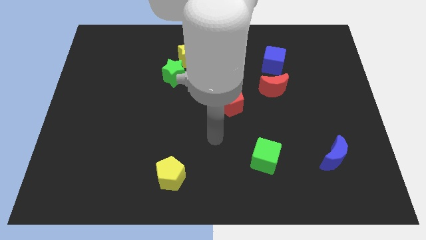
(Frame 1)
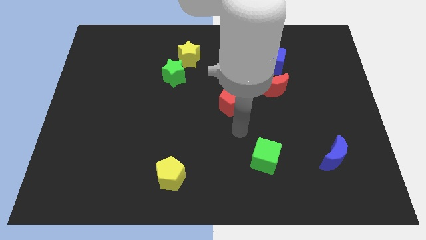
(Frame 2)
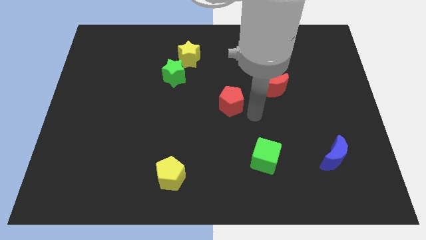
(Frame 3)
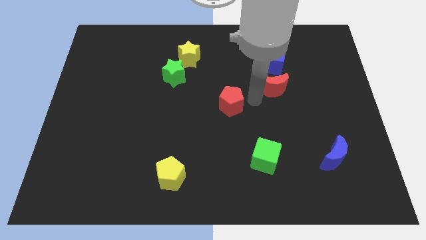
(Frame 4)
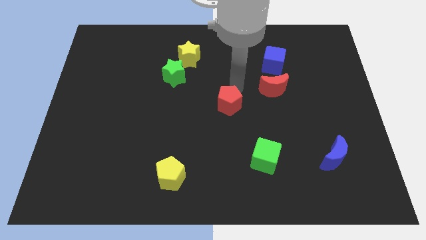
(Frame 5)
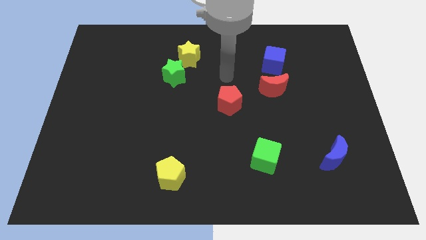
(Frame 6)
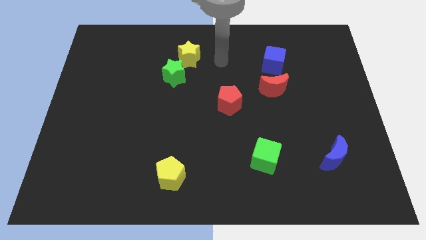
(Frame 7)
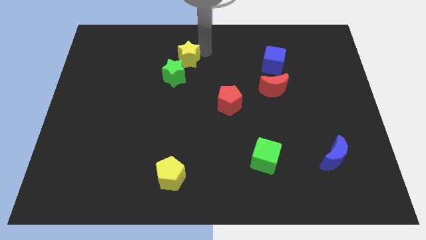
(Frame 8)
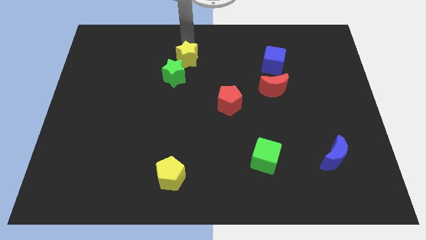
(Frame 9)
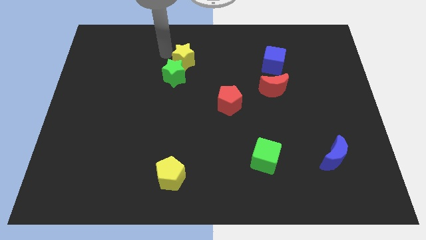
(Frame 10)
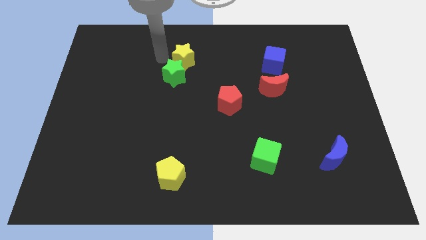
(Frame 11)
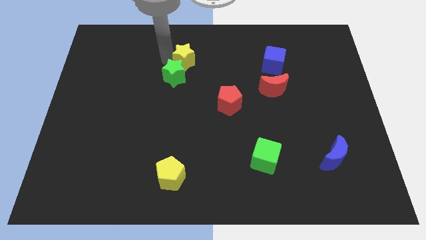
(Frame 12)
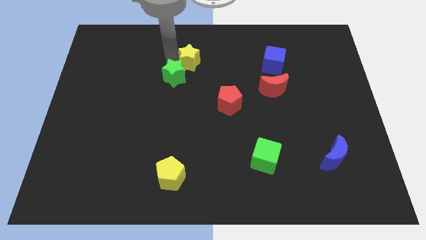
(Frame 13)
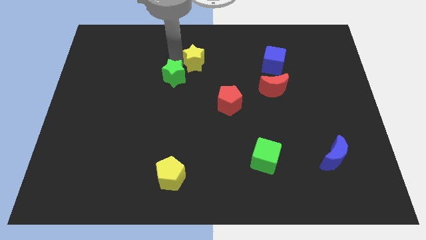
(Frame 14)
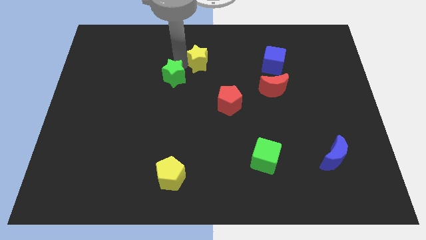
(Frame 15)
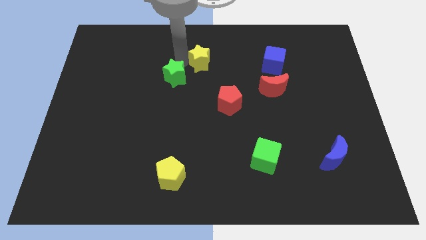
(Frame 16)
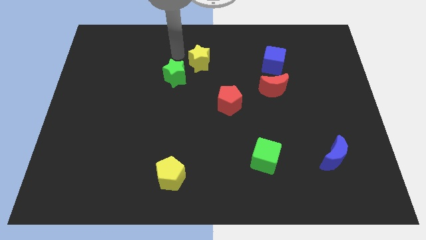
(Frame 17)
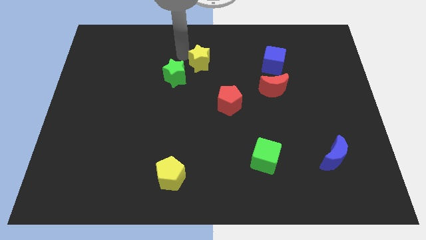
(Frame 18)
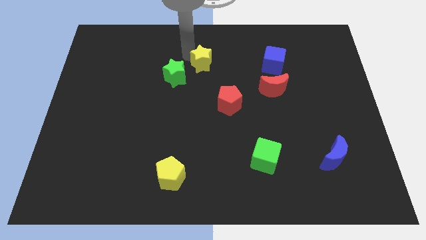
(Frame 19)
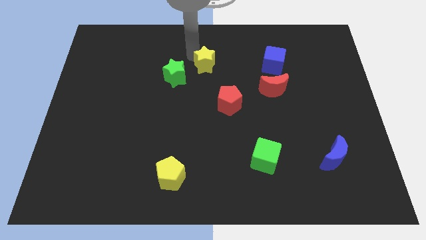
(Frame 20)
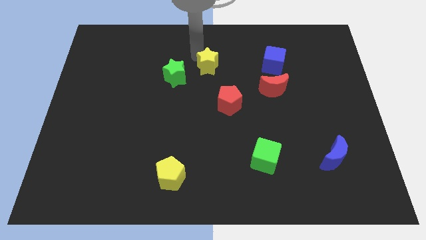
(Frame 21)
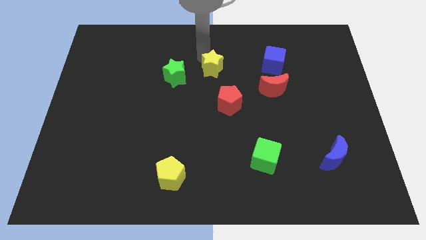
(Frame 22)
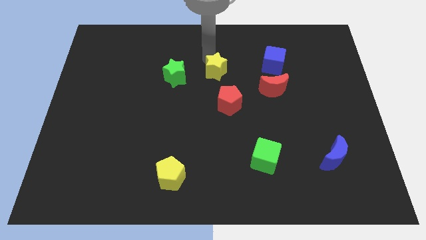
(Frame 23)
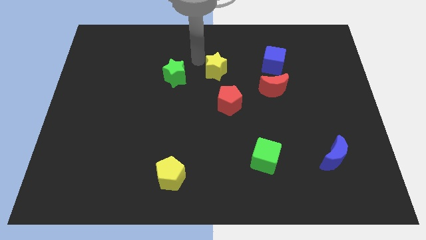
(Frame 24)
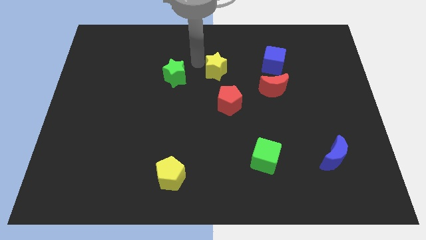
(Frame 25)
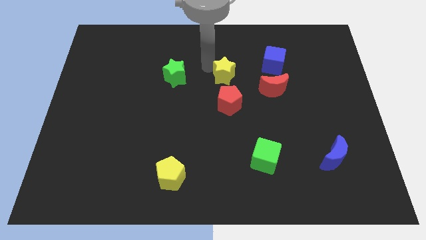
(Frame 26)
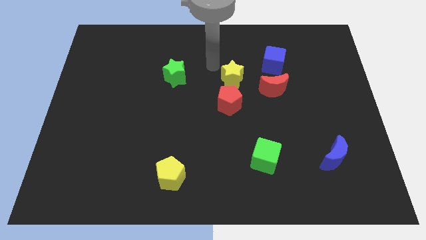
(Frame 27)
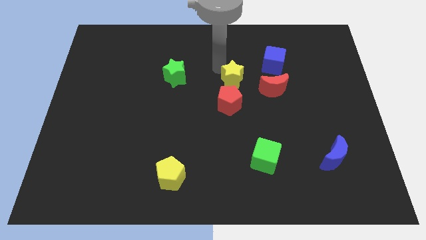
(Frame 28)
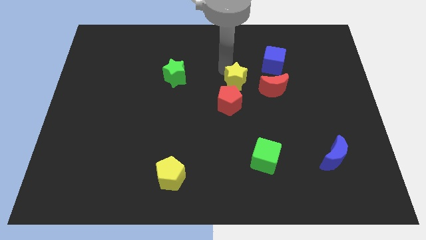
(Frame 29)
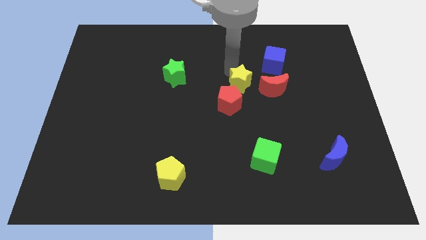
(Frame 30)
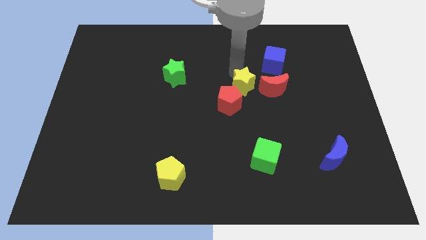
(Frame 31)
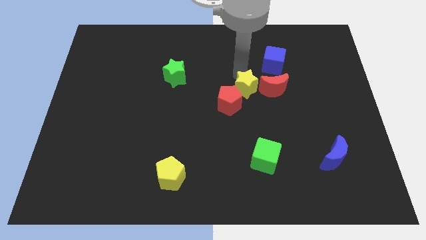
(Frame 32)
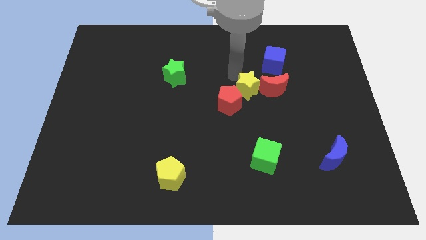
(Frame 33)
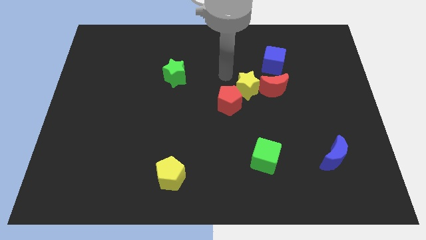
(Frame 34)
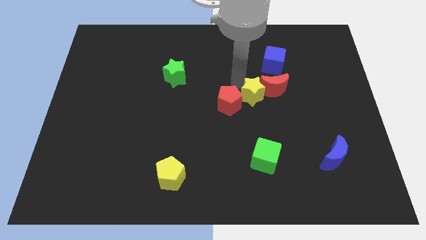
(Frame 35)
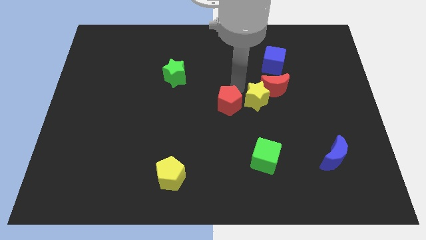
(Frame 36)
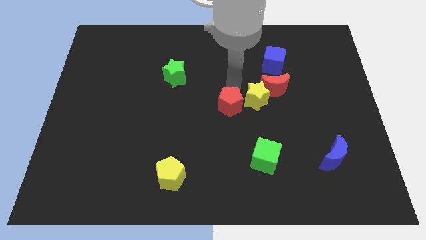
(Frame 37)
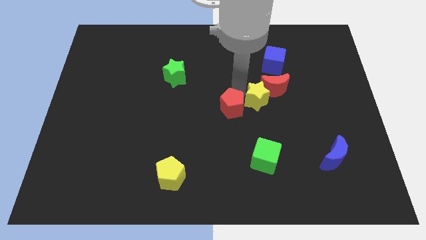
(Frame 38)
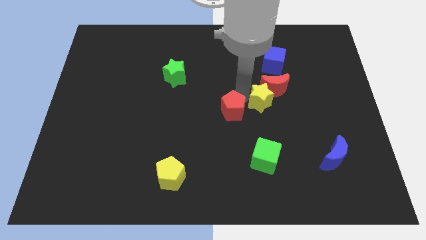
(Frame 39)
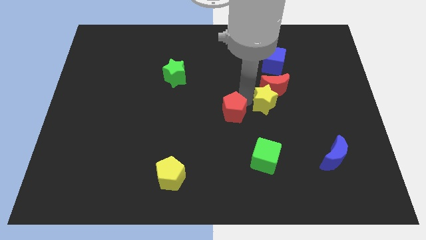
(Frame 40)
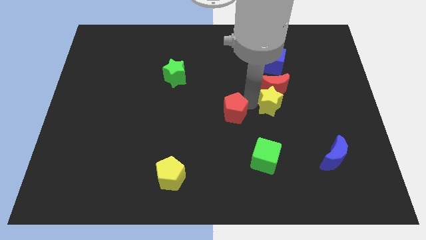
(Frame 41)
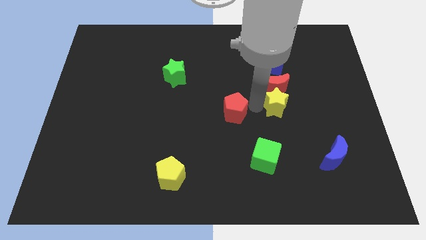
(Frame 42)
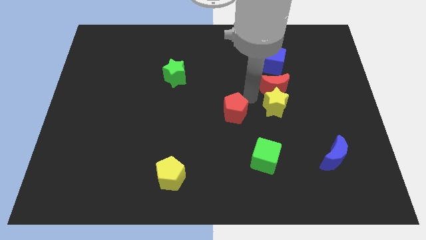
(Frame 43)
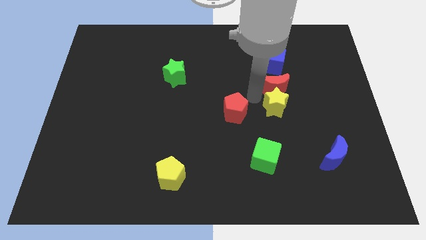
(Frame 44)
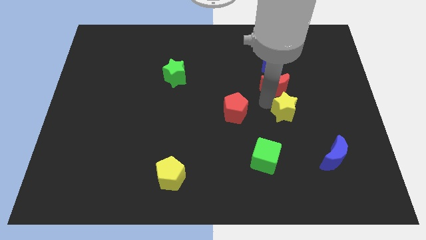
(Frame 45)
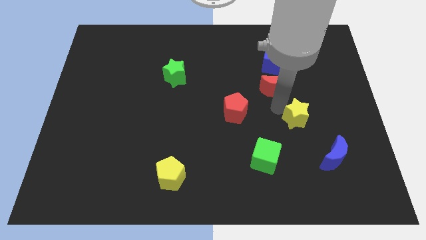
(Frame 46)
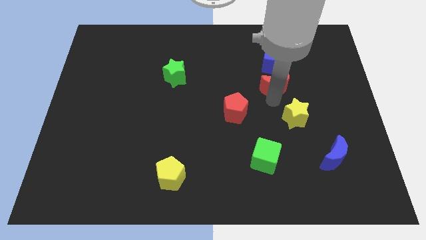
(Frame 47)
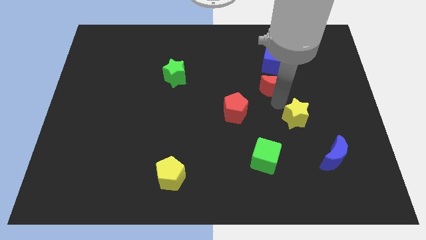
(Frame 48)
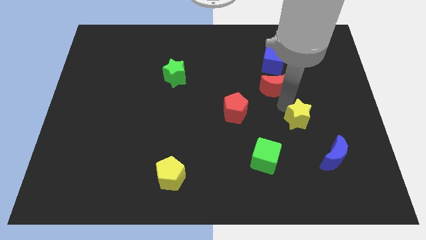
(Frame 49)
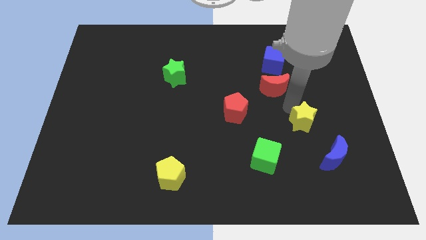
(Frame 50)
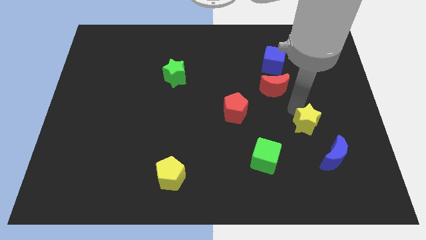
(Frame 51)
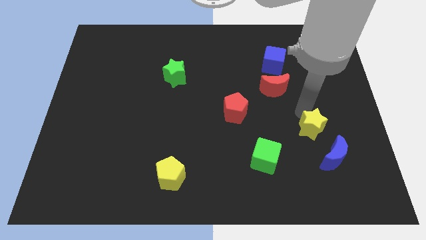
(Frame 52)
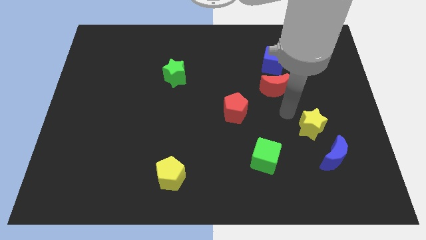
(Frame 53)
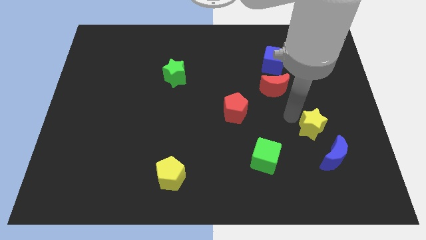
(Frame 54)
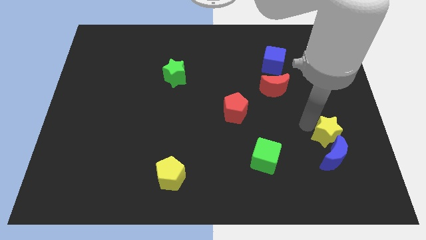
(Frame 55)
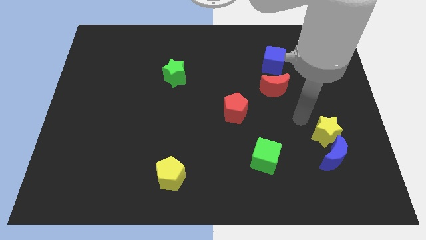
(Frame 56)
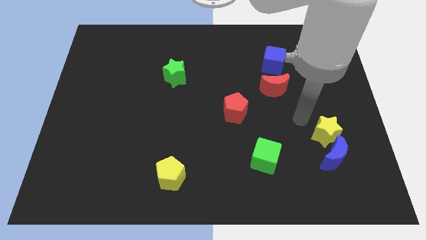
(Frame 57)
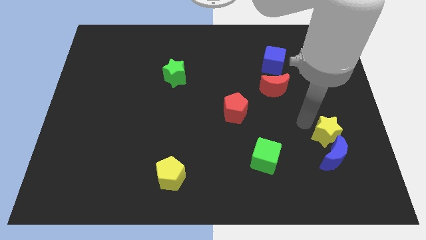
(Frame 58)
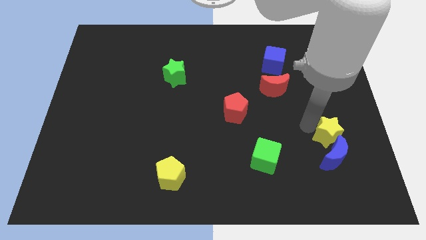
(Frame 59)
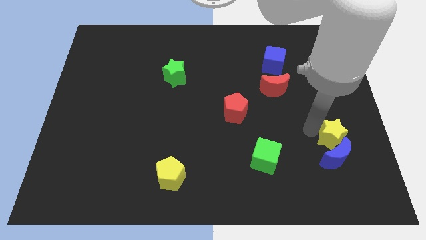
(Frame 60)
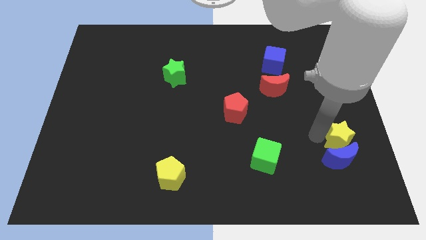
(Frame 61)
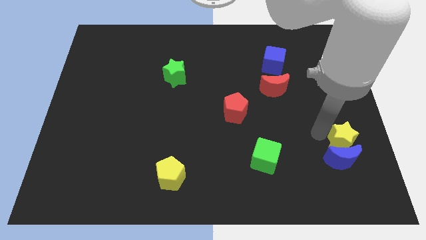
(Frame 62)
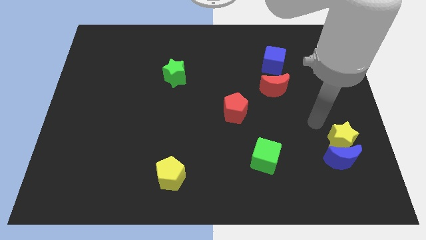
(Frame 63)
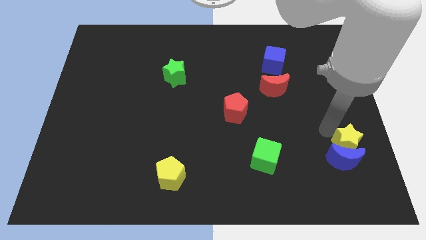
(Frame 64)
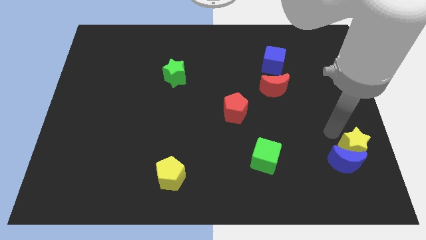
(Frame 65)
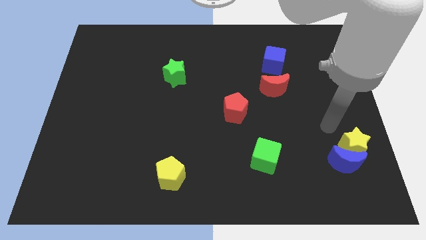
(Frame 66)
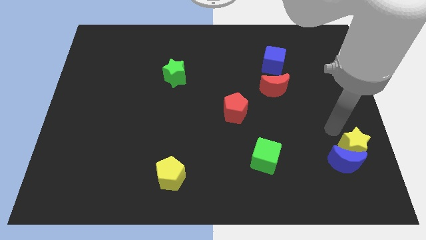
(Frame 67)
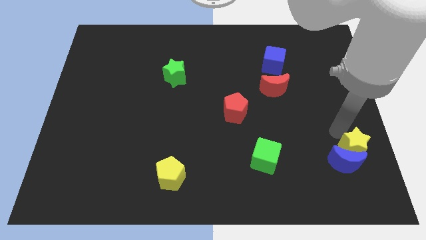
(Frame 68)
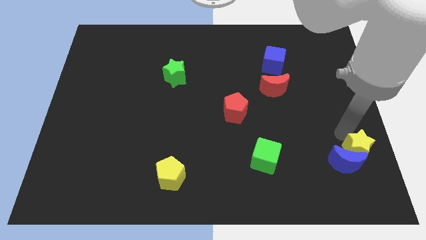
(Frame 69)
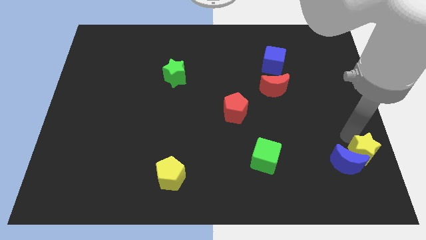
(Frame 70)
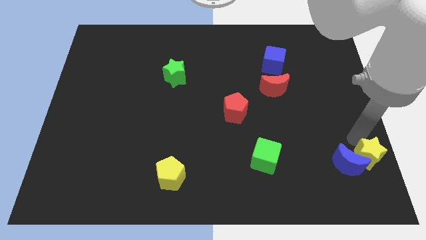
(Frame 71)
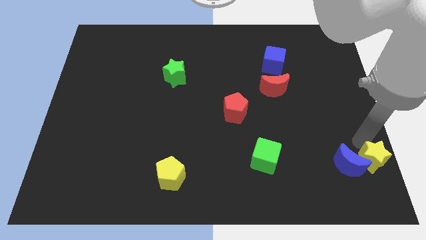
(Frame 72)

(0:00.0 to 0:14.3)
move the yellow star to the bottom right of the board
